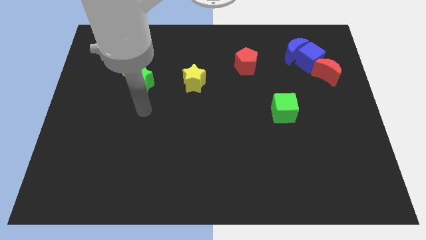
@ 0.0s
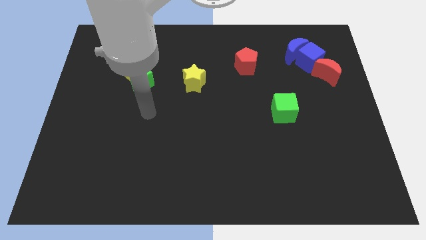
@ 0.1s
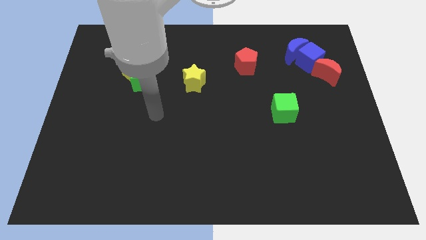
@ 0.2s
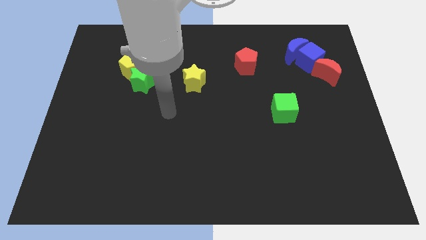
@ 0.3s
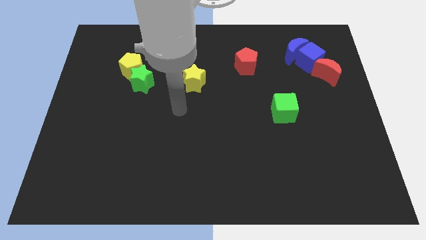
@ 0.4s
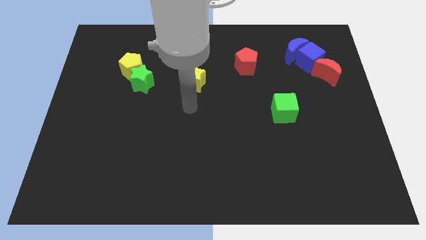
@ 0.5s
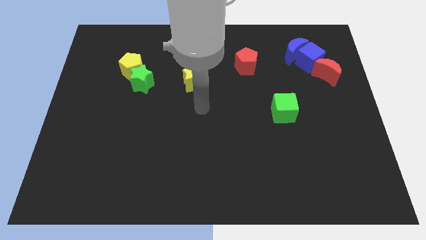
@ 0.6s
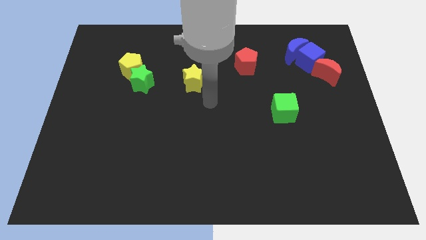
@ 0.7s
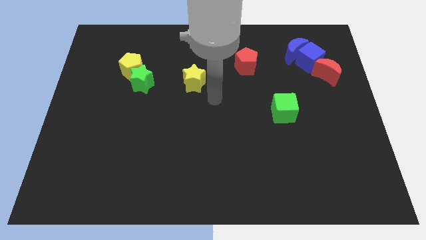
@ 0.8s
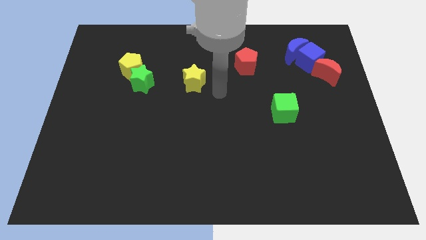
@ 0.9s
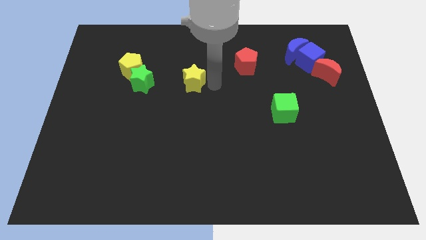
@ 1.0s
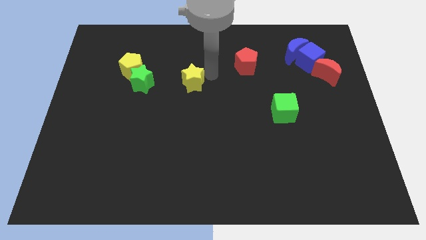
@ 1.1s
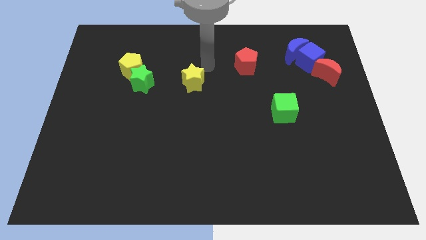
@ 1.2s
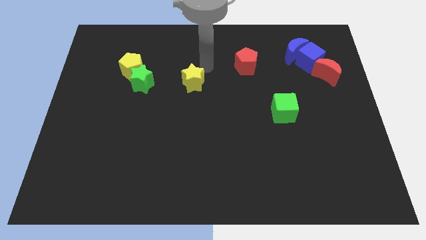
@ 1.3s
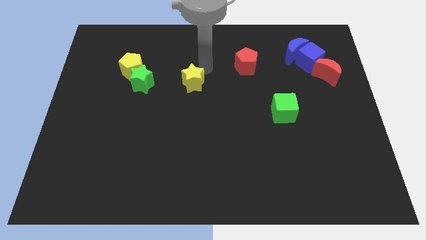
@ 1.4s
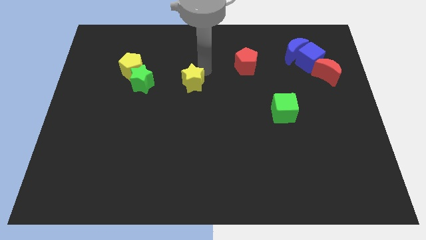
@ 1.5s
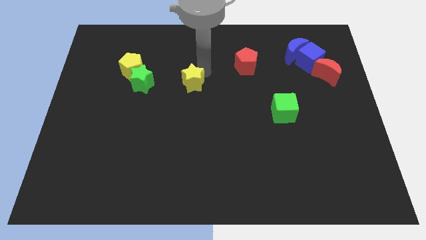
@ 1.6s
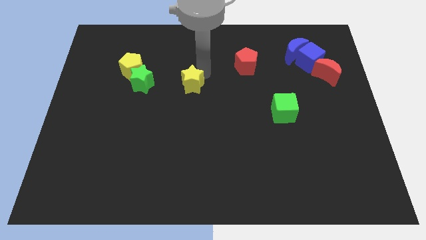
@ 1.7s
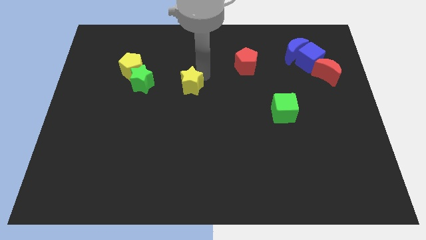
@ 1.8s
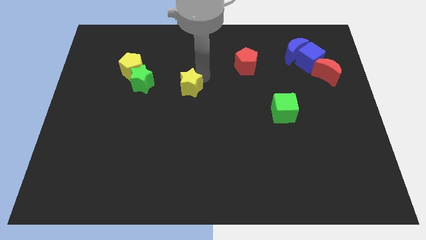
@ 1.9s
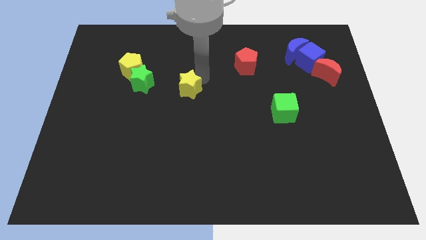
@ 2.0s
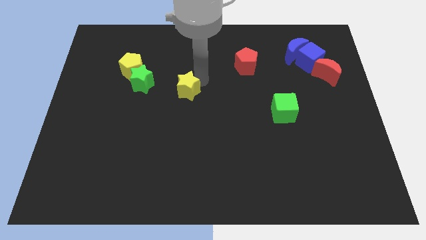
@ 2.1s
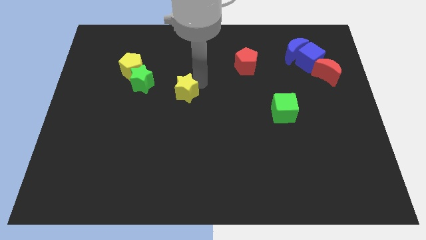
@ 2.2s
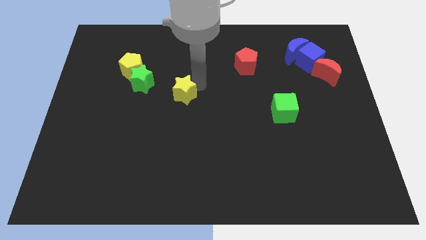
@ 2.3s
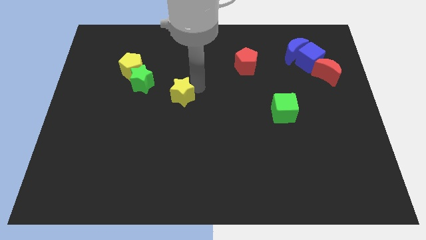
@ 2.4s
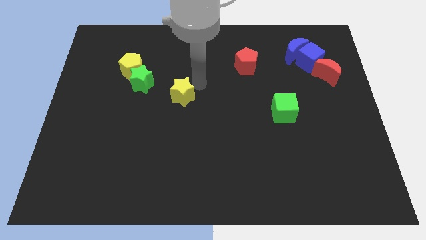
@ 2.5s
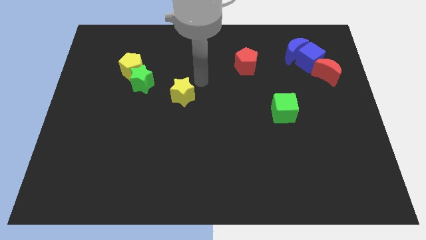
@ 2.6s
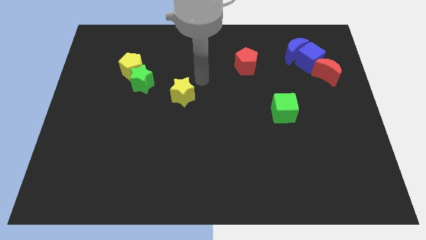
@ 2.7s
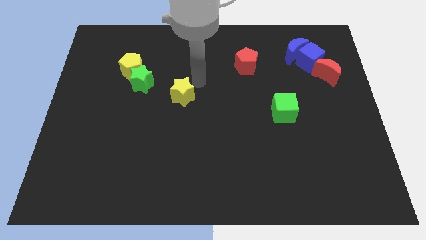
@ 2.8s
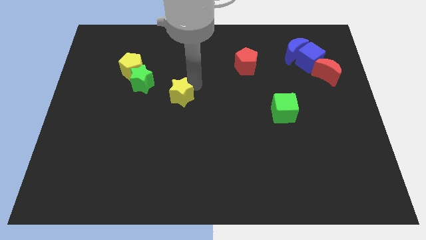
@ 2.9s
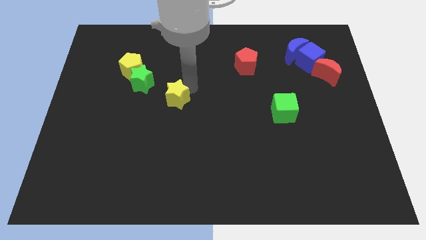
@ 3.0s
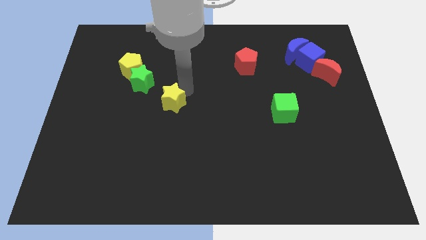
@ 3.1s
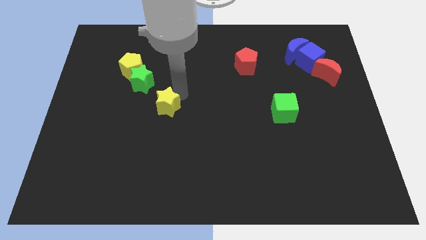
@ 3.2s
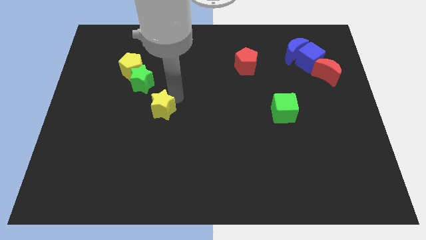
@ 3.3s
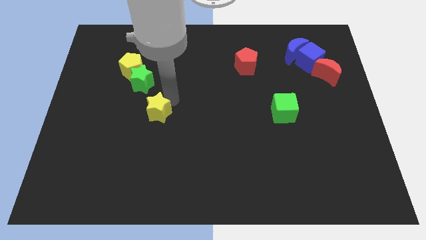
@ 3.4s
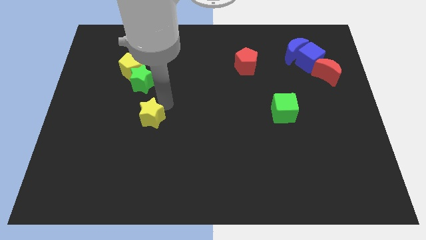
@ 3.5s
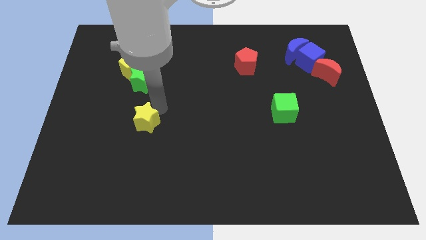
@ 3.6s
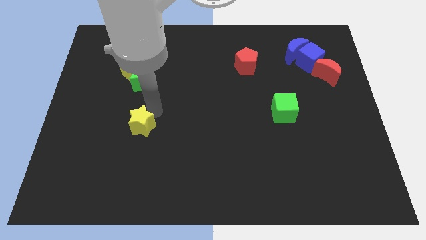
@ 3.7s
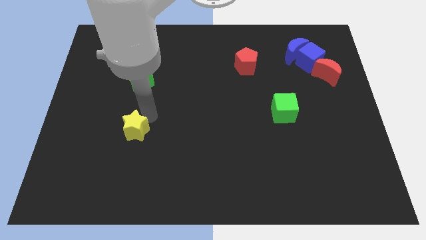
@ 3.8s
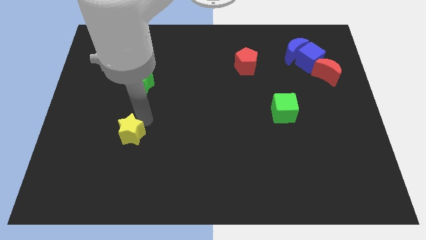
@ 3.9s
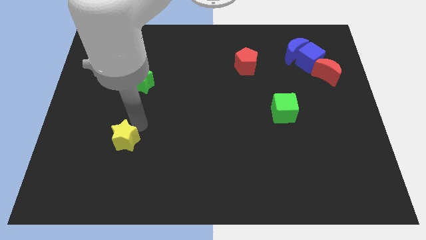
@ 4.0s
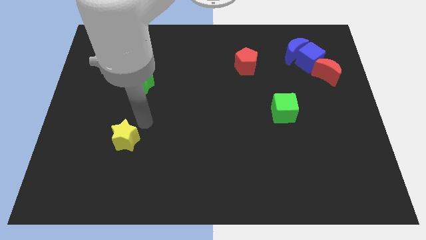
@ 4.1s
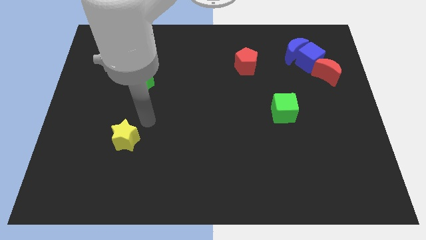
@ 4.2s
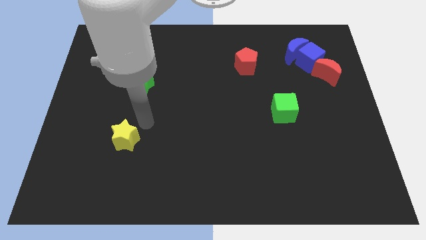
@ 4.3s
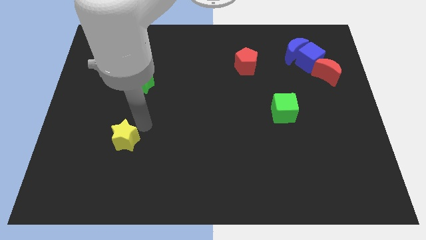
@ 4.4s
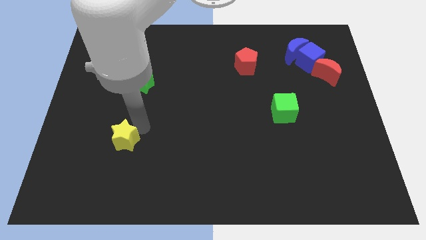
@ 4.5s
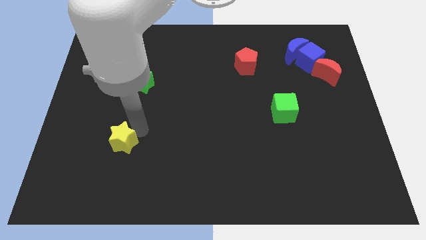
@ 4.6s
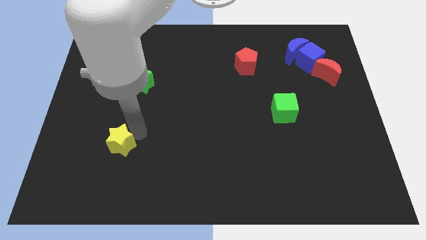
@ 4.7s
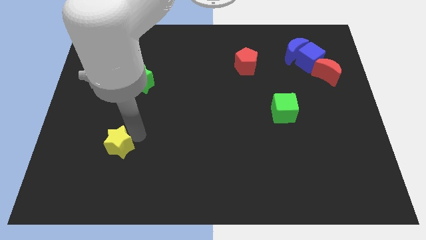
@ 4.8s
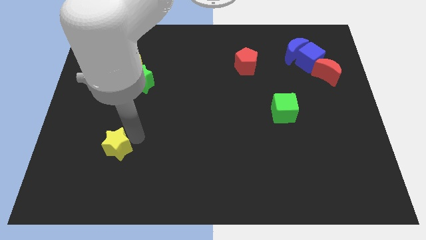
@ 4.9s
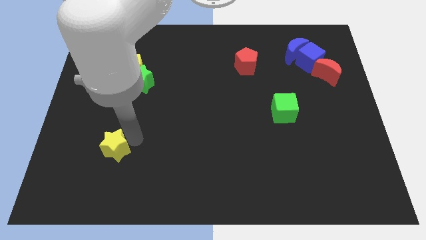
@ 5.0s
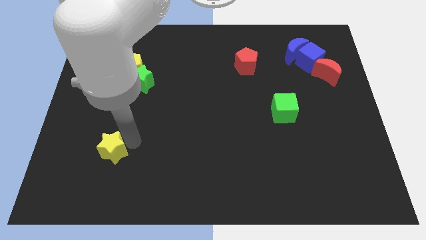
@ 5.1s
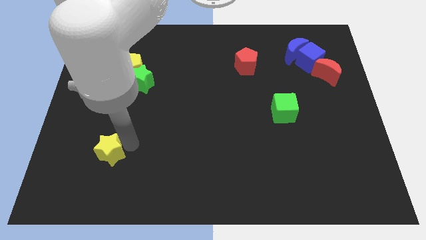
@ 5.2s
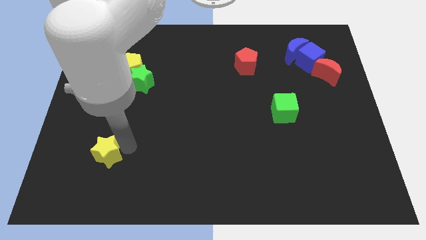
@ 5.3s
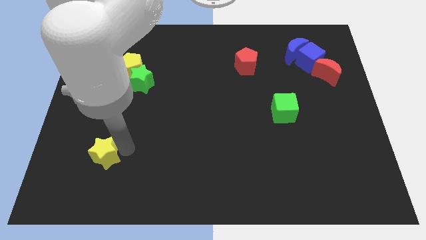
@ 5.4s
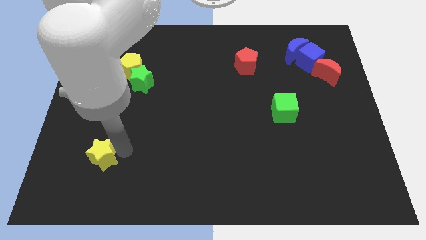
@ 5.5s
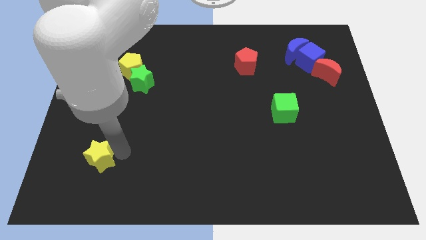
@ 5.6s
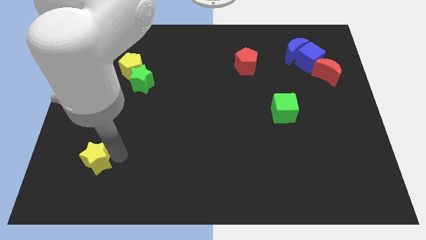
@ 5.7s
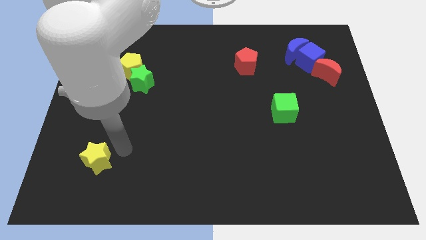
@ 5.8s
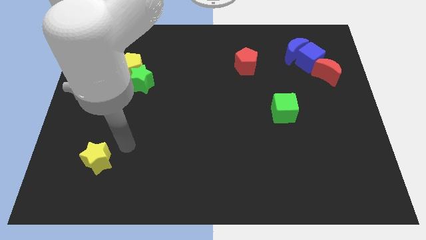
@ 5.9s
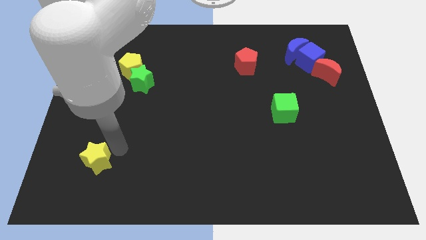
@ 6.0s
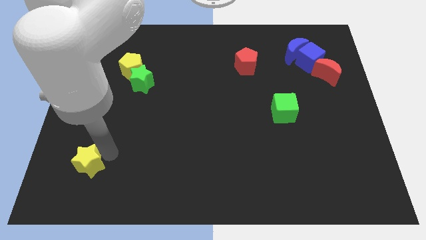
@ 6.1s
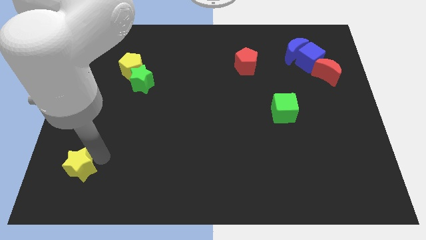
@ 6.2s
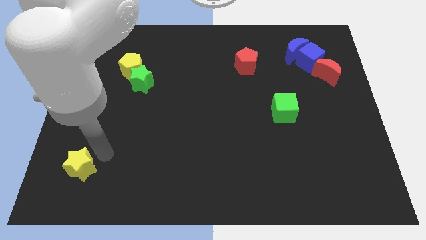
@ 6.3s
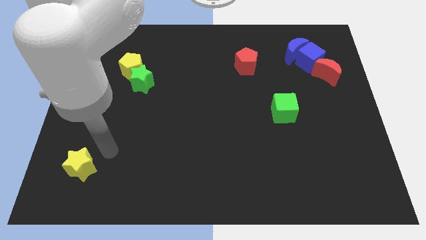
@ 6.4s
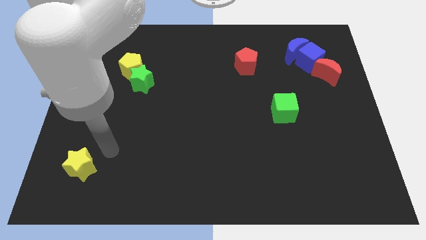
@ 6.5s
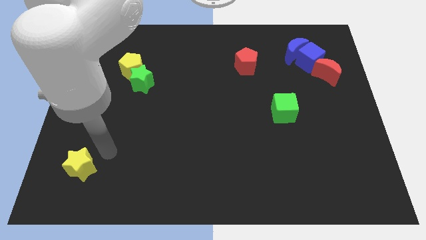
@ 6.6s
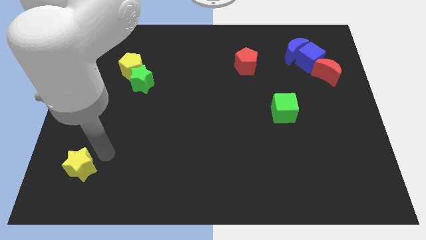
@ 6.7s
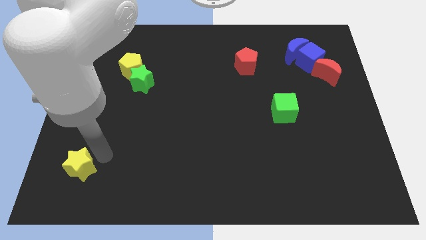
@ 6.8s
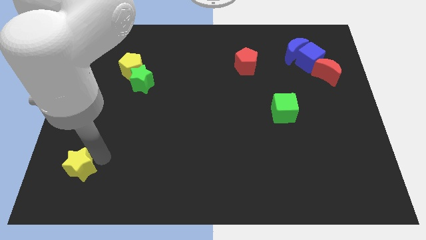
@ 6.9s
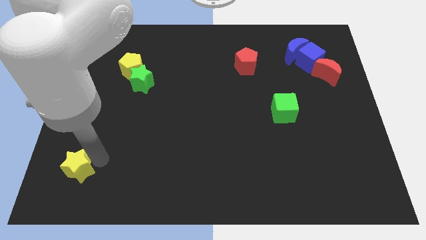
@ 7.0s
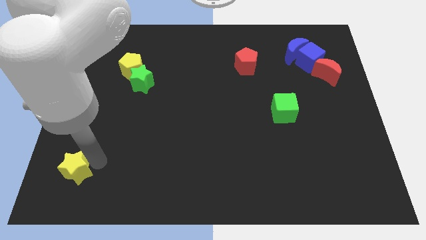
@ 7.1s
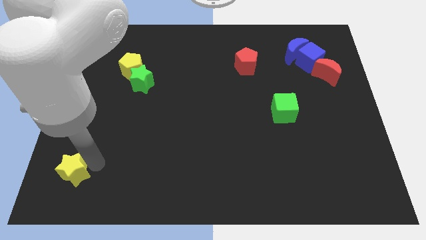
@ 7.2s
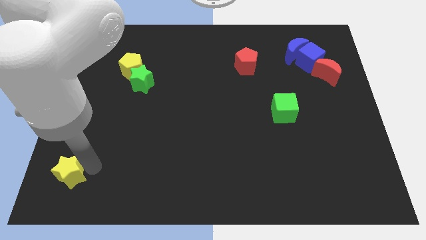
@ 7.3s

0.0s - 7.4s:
move the yellow star to the bottom left of the board
